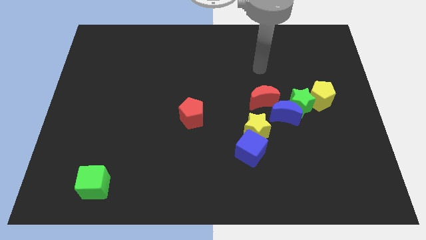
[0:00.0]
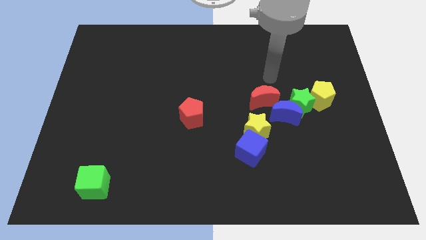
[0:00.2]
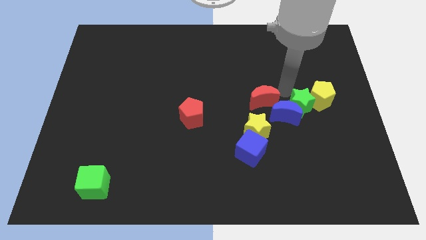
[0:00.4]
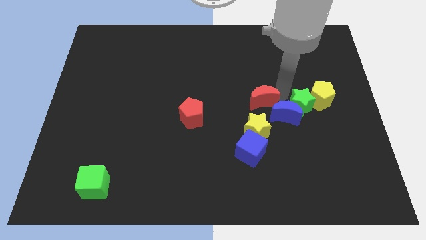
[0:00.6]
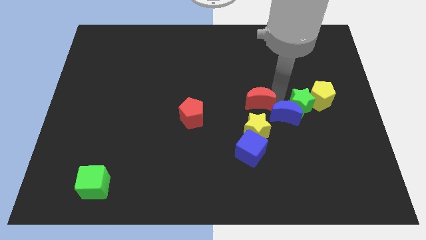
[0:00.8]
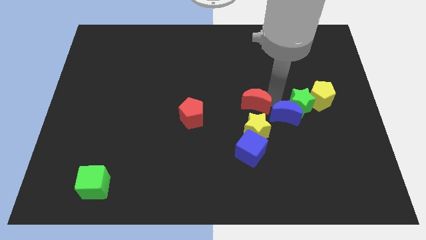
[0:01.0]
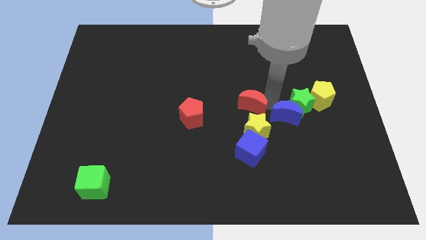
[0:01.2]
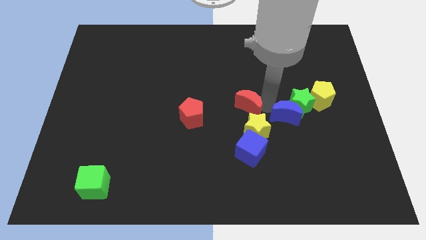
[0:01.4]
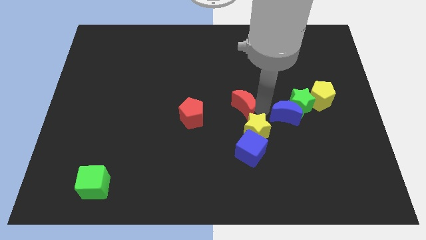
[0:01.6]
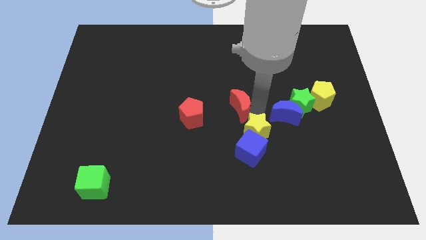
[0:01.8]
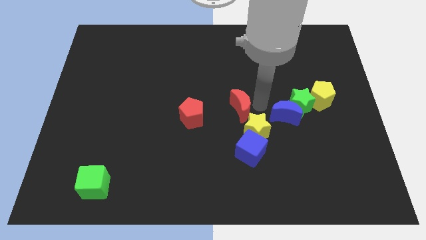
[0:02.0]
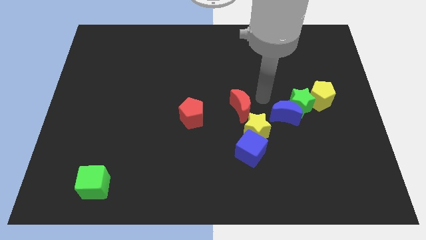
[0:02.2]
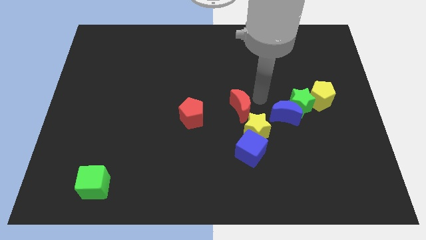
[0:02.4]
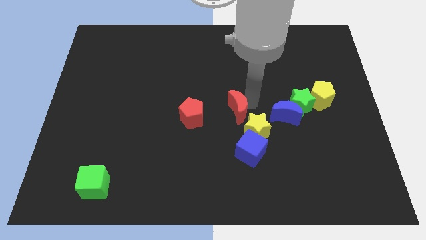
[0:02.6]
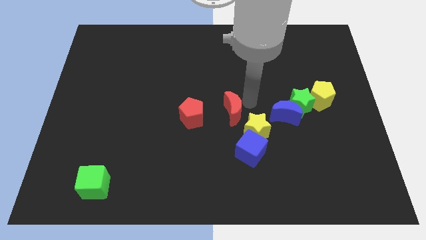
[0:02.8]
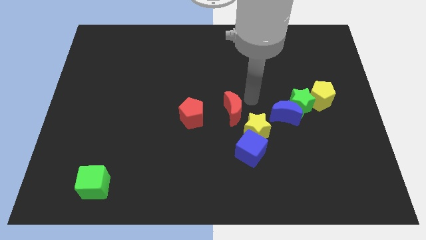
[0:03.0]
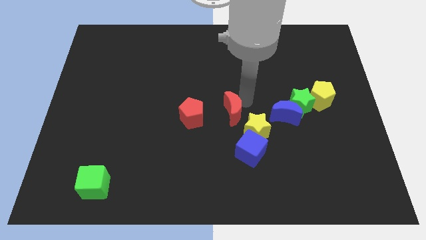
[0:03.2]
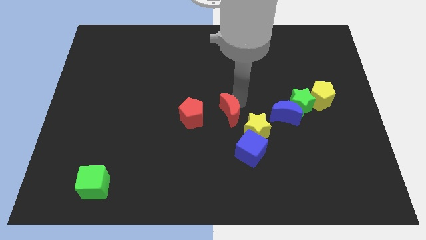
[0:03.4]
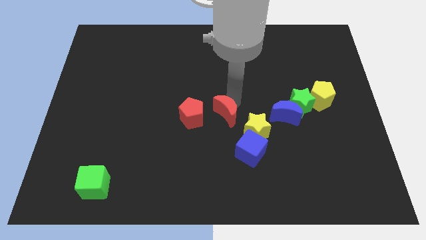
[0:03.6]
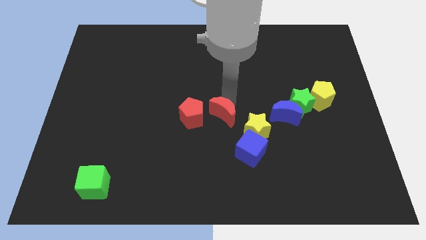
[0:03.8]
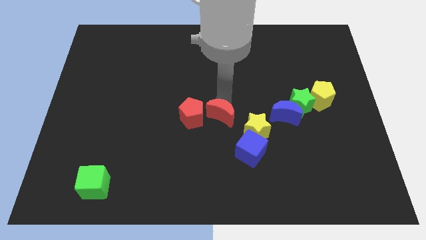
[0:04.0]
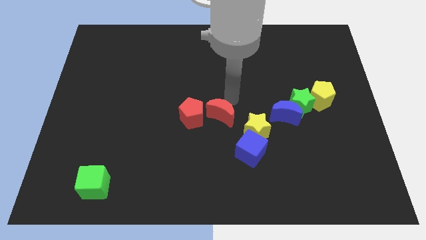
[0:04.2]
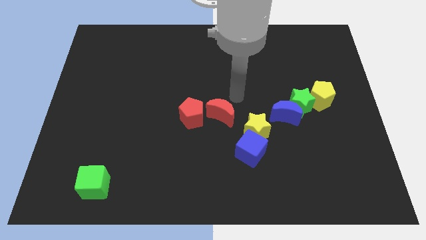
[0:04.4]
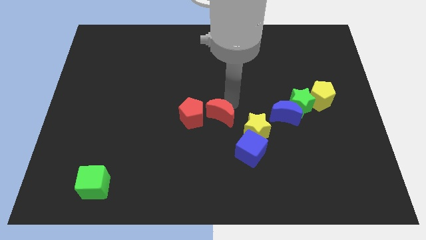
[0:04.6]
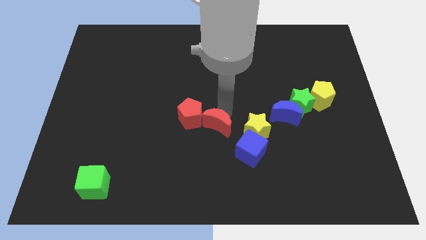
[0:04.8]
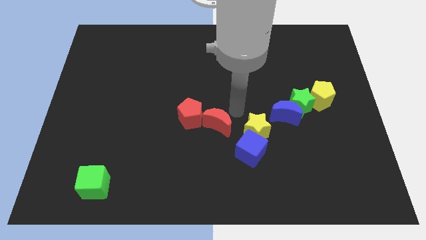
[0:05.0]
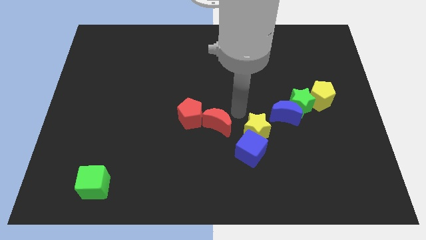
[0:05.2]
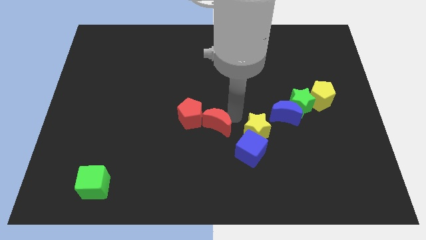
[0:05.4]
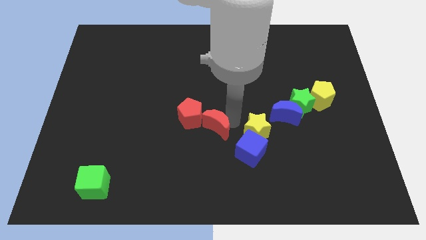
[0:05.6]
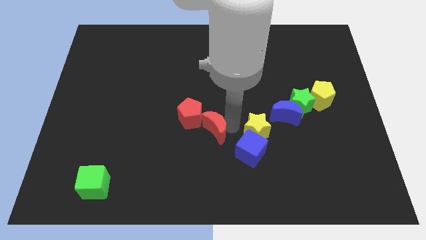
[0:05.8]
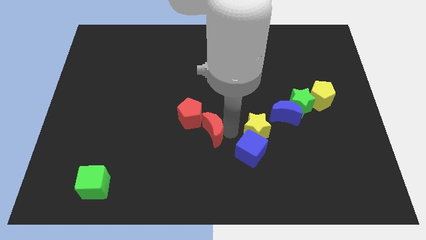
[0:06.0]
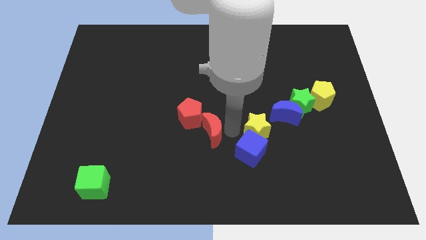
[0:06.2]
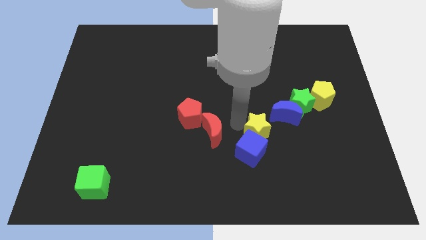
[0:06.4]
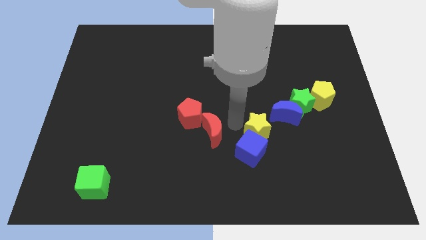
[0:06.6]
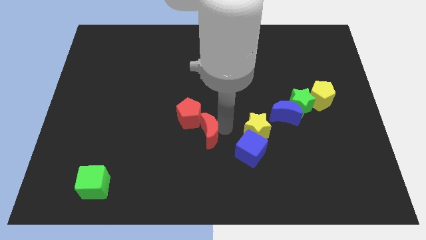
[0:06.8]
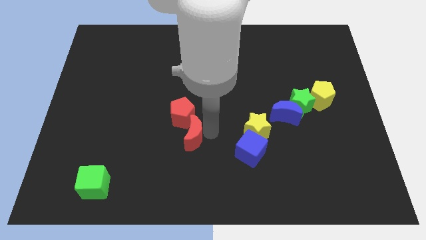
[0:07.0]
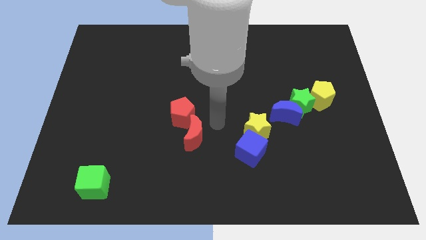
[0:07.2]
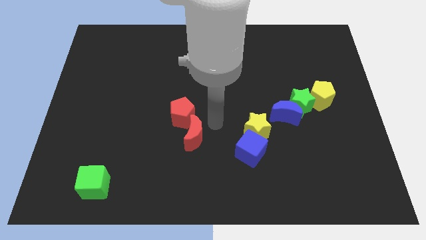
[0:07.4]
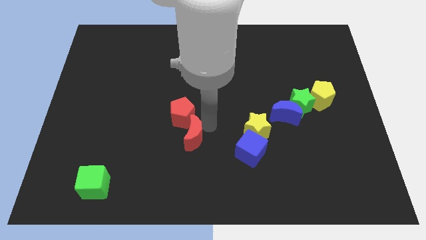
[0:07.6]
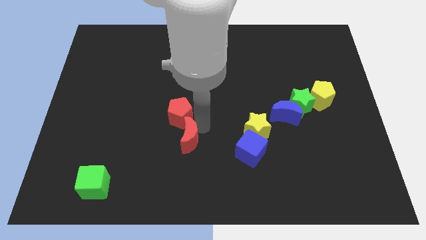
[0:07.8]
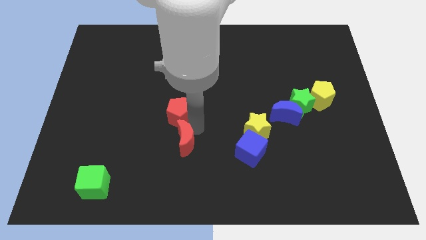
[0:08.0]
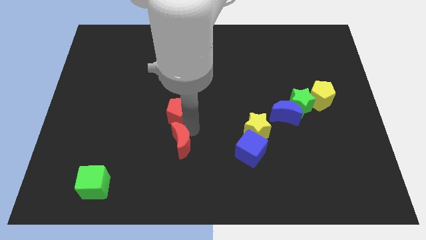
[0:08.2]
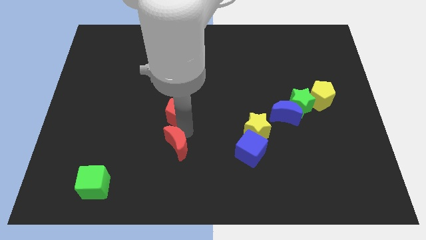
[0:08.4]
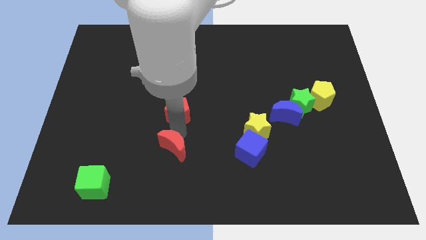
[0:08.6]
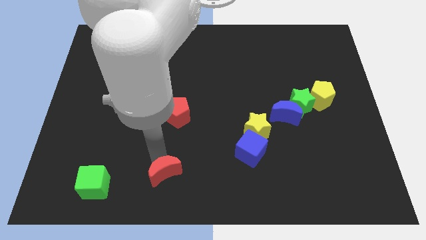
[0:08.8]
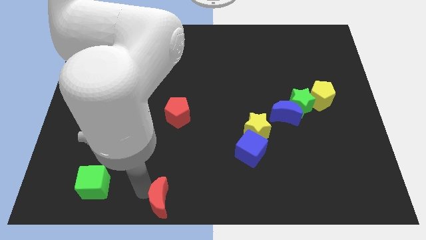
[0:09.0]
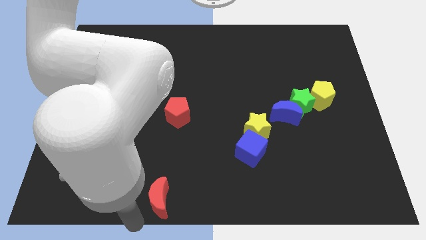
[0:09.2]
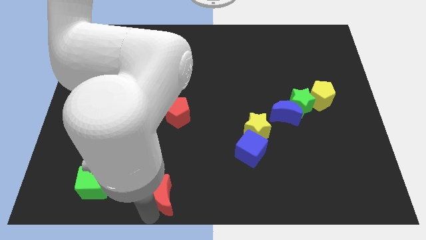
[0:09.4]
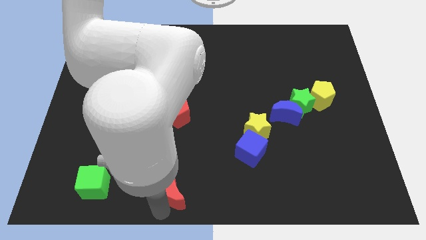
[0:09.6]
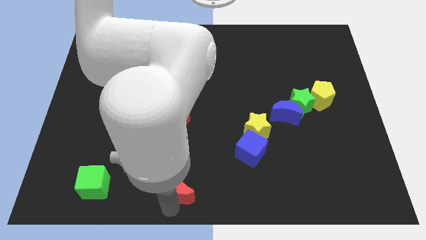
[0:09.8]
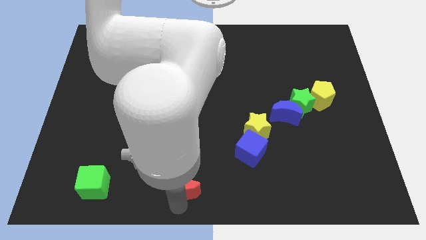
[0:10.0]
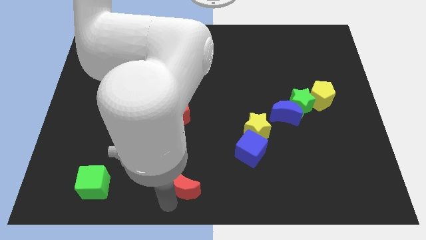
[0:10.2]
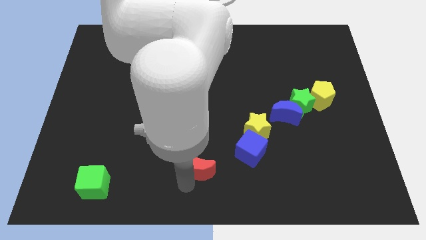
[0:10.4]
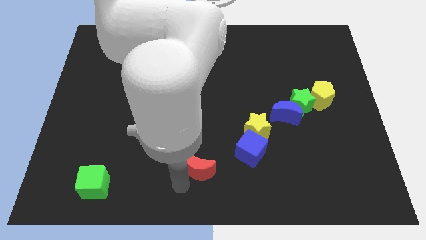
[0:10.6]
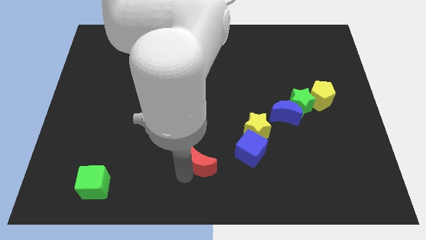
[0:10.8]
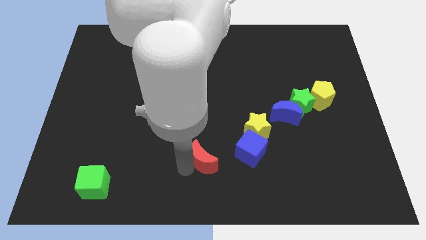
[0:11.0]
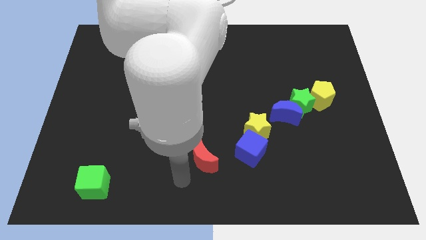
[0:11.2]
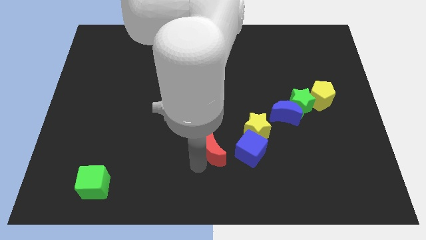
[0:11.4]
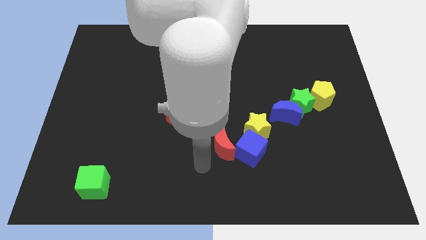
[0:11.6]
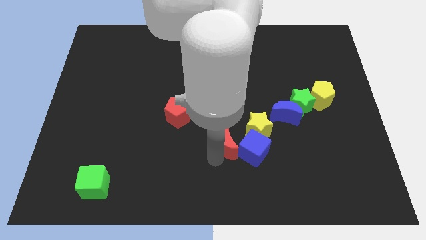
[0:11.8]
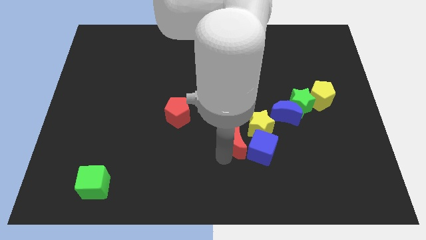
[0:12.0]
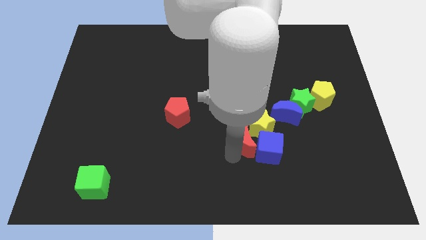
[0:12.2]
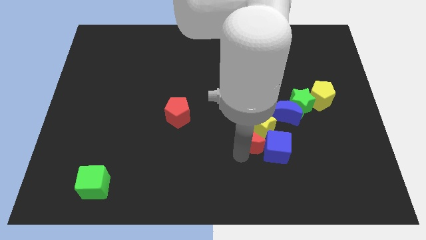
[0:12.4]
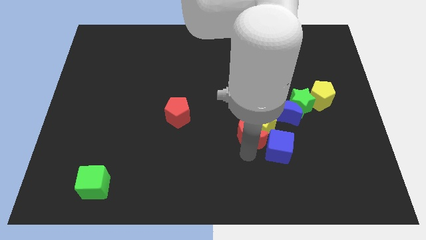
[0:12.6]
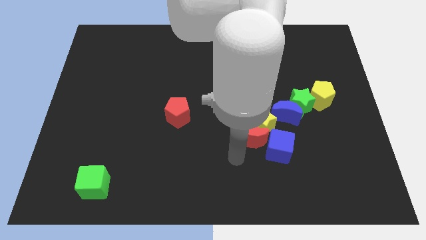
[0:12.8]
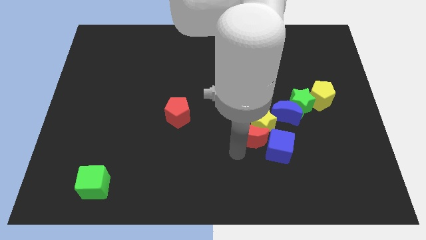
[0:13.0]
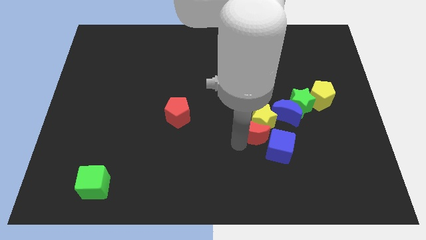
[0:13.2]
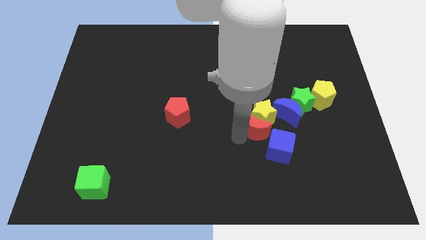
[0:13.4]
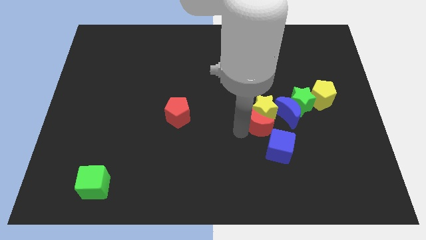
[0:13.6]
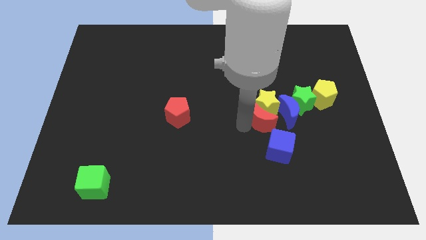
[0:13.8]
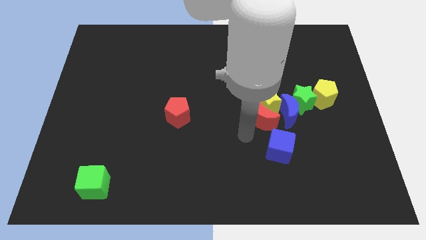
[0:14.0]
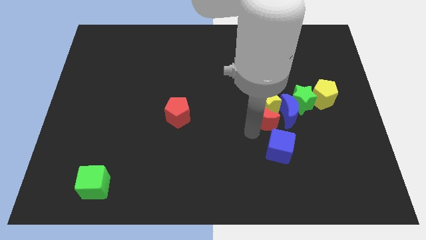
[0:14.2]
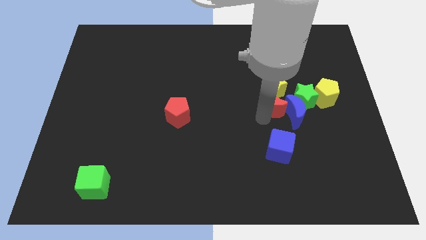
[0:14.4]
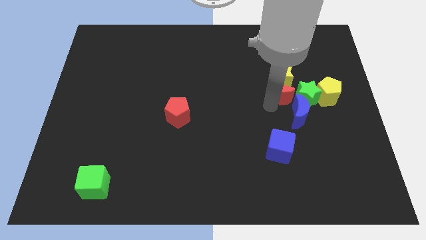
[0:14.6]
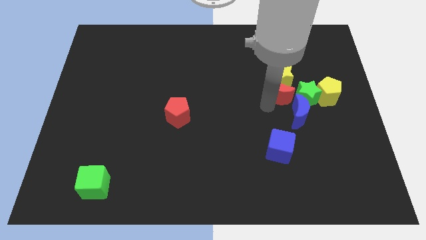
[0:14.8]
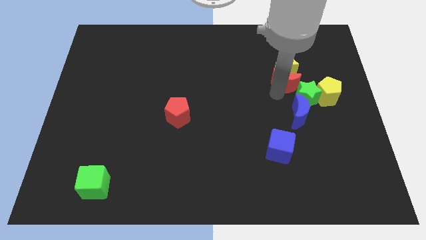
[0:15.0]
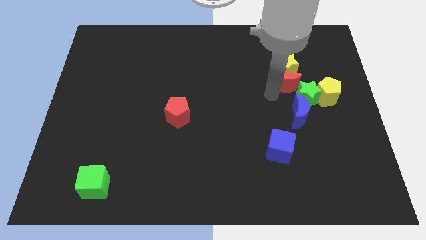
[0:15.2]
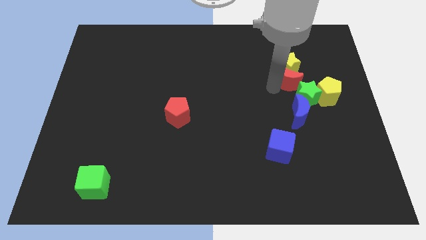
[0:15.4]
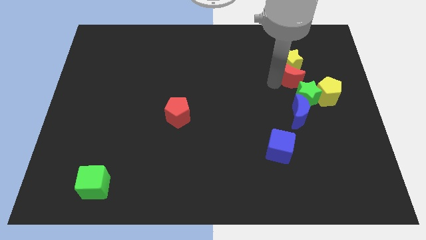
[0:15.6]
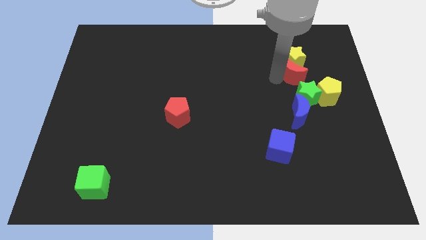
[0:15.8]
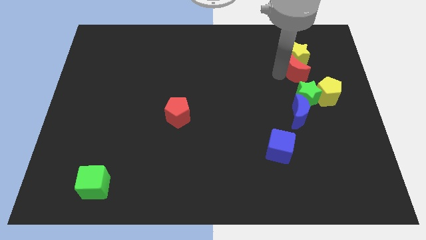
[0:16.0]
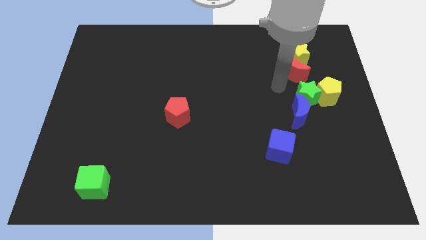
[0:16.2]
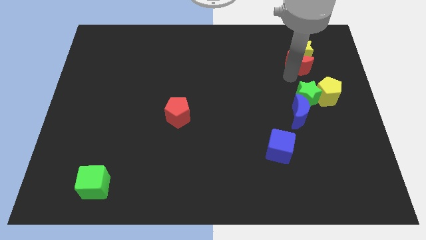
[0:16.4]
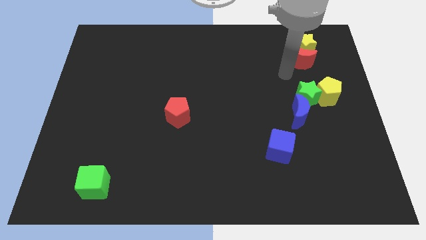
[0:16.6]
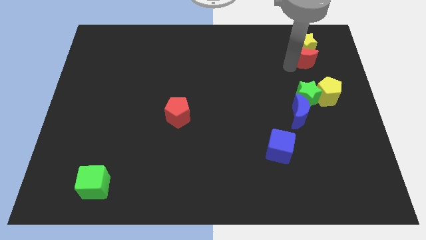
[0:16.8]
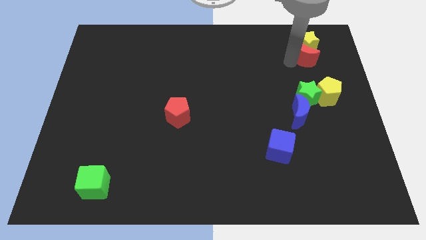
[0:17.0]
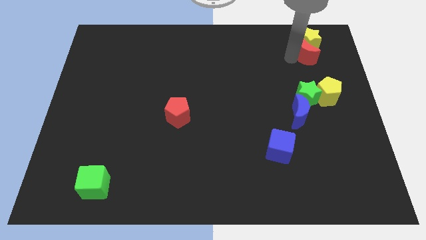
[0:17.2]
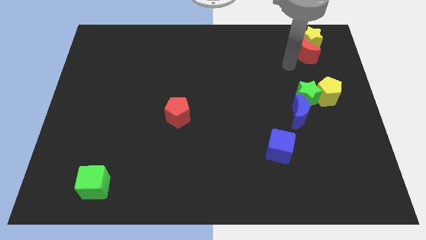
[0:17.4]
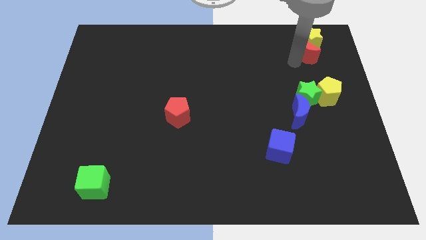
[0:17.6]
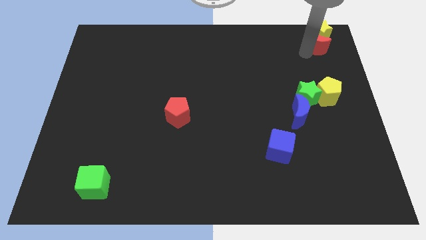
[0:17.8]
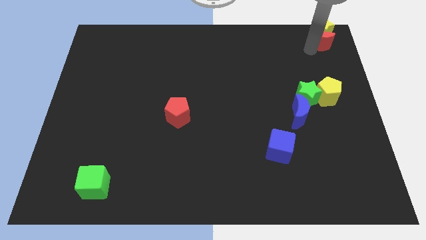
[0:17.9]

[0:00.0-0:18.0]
move the red moon to the top right corner
